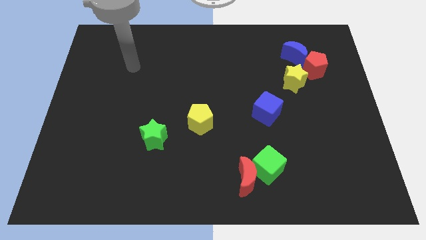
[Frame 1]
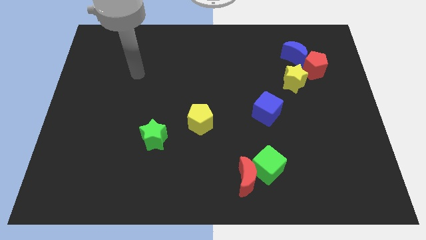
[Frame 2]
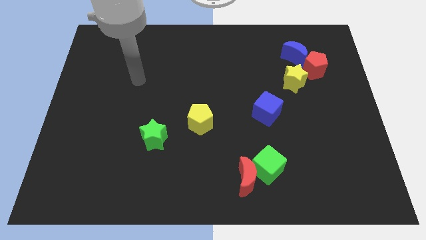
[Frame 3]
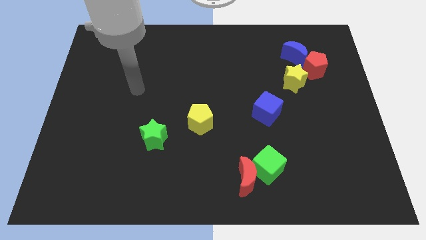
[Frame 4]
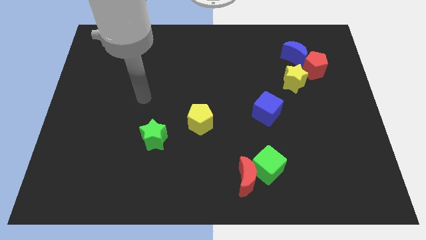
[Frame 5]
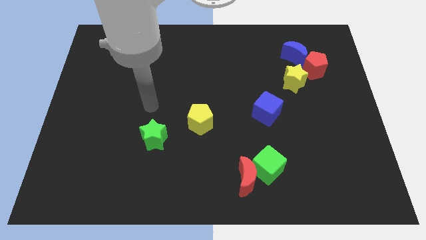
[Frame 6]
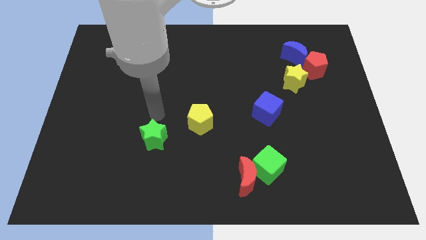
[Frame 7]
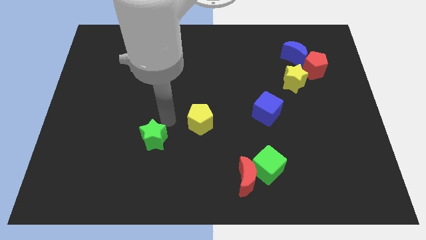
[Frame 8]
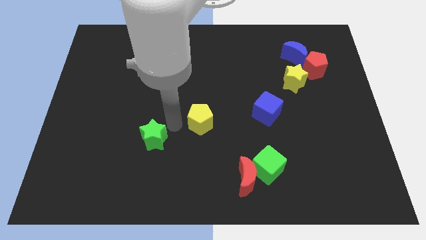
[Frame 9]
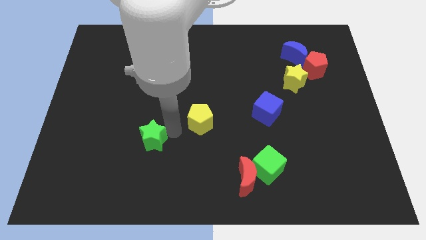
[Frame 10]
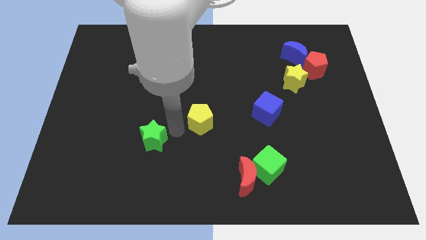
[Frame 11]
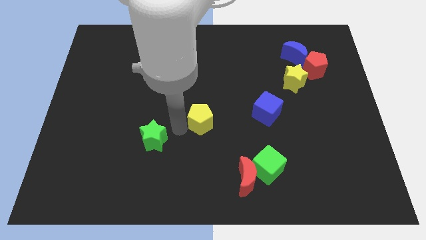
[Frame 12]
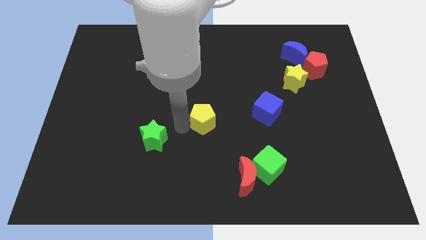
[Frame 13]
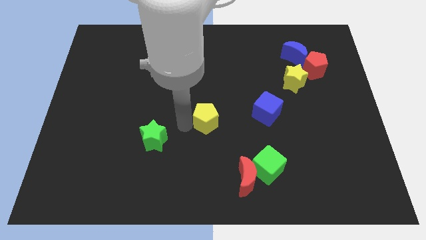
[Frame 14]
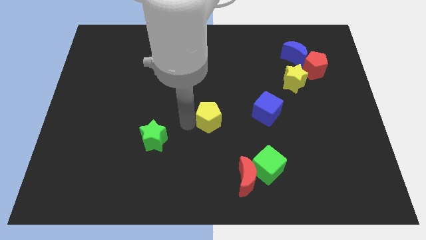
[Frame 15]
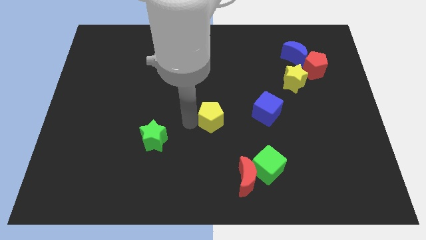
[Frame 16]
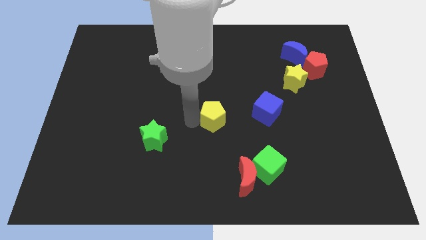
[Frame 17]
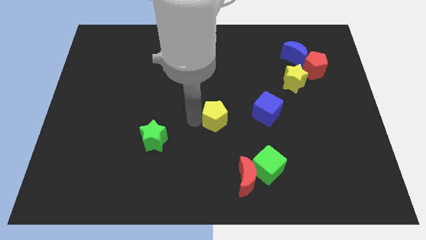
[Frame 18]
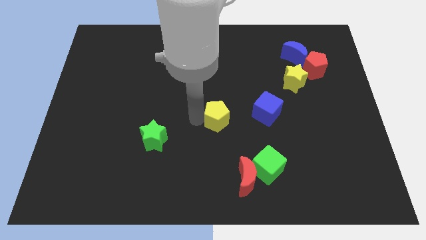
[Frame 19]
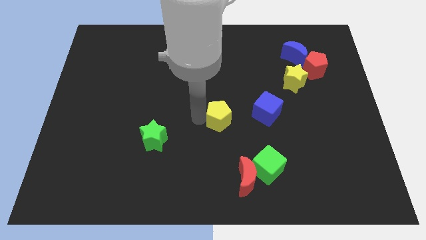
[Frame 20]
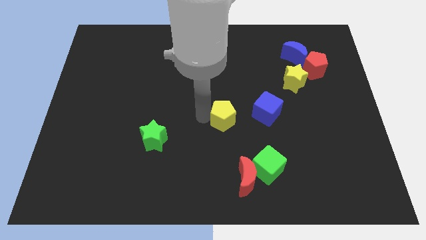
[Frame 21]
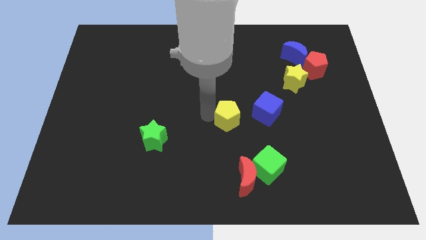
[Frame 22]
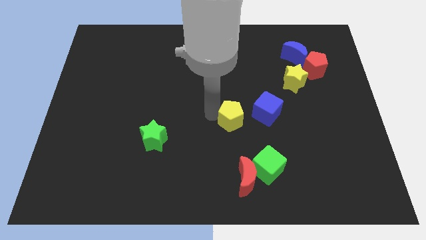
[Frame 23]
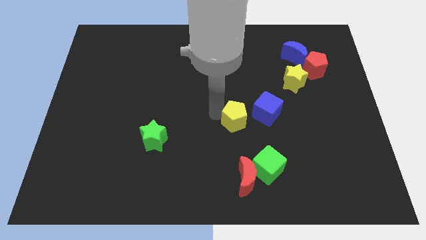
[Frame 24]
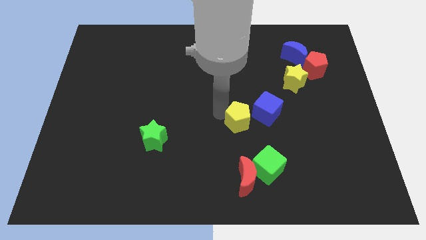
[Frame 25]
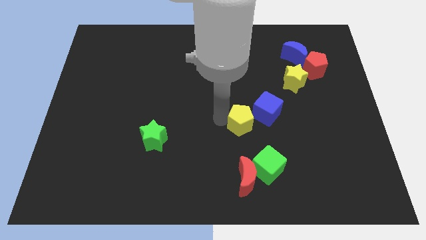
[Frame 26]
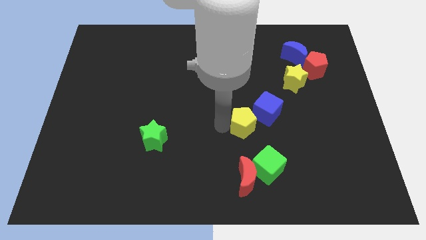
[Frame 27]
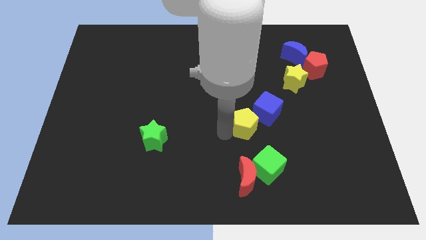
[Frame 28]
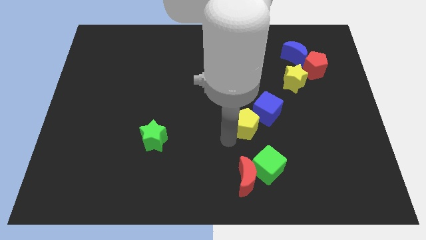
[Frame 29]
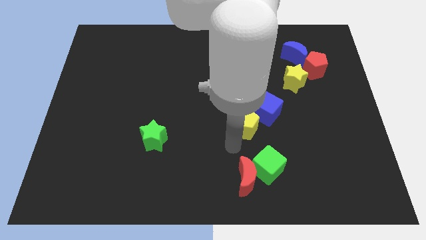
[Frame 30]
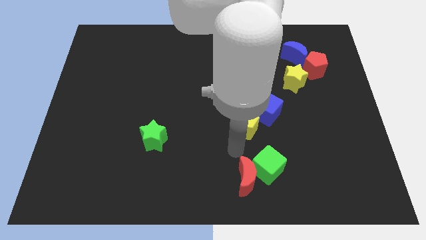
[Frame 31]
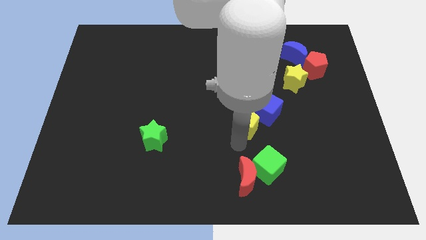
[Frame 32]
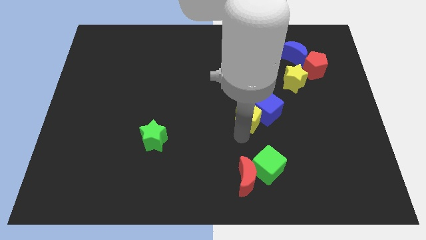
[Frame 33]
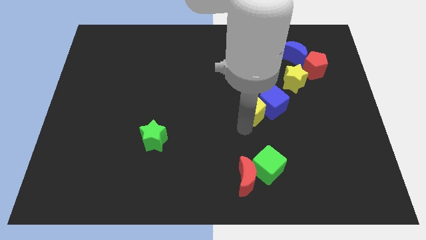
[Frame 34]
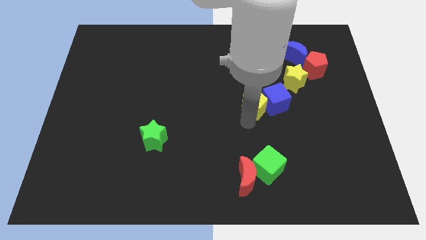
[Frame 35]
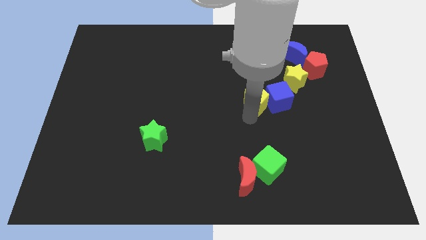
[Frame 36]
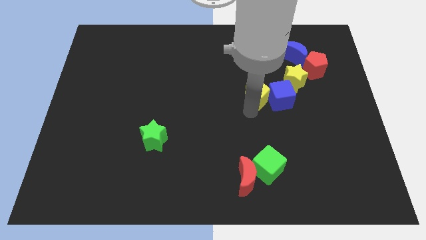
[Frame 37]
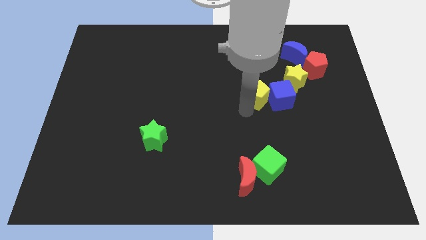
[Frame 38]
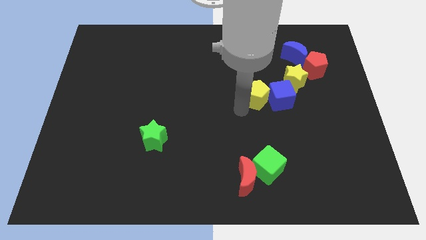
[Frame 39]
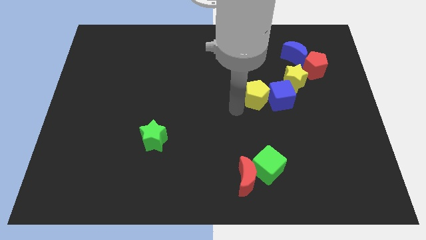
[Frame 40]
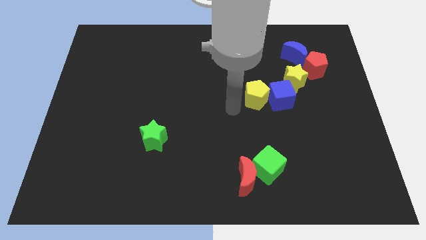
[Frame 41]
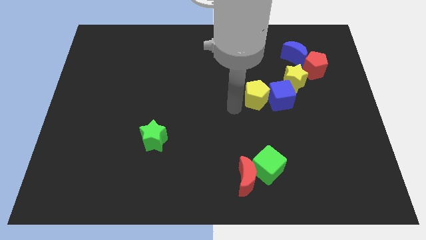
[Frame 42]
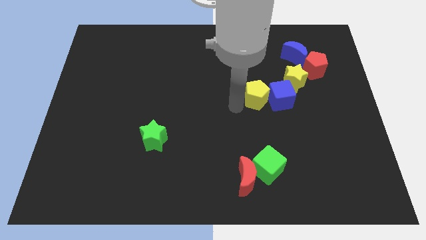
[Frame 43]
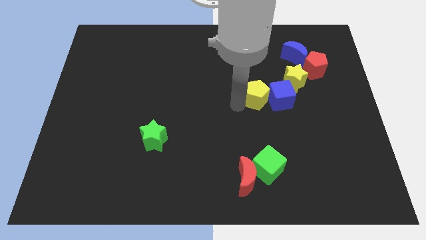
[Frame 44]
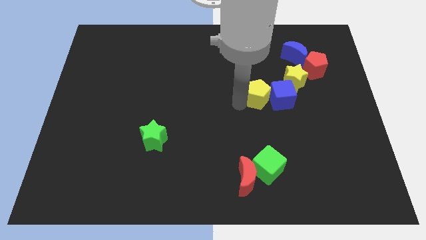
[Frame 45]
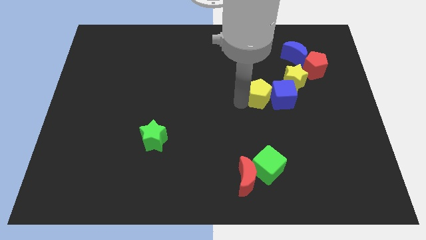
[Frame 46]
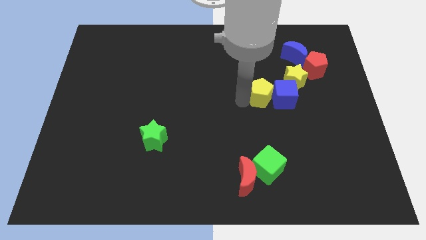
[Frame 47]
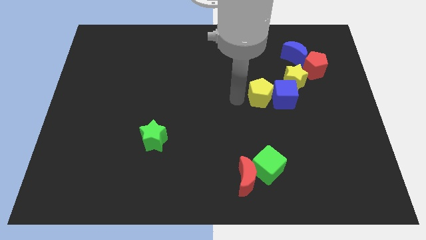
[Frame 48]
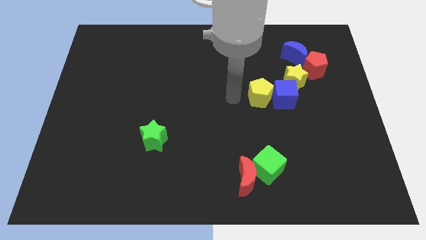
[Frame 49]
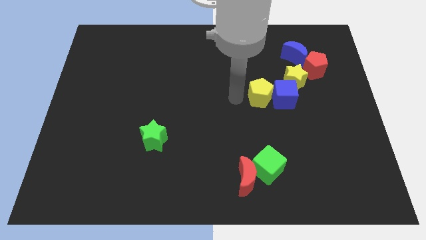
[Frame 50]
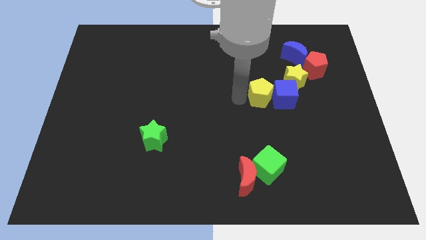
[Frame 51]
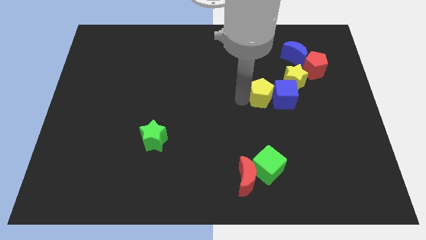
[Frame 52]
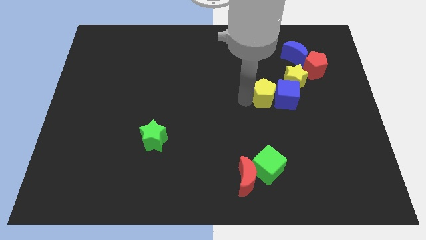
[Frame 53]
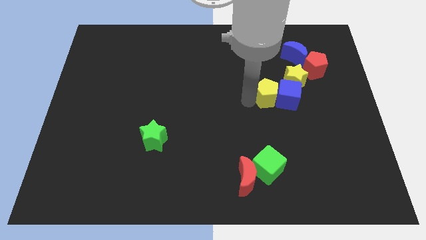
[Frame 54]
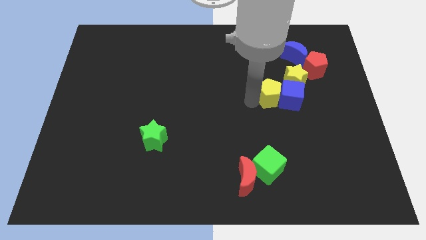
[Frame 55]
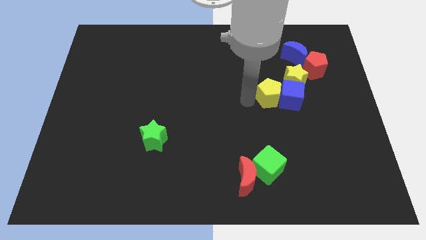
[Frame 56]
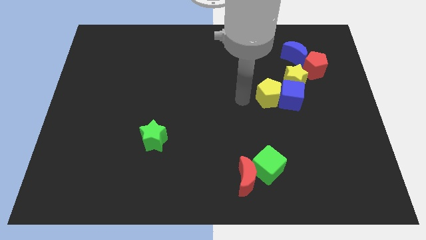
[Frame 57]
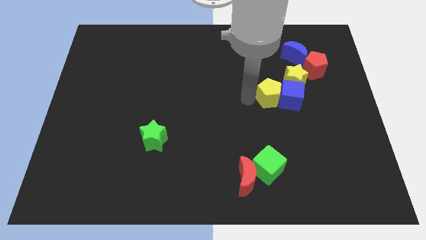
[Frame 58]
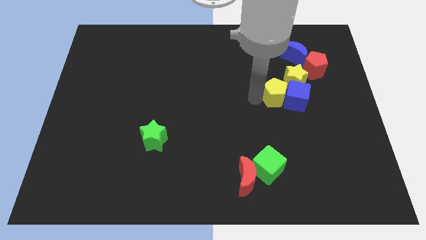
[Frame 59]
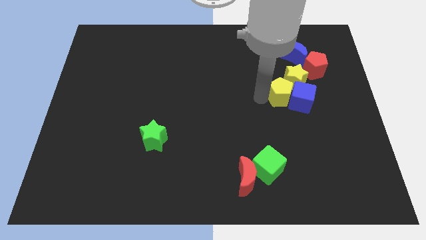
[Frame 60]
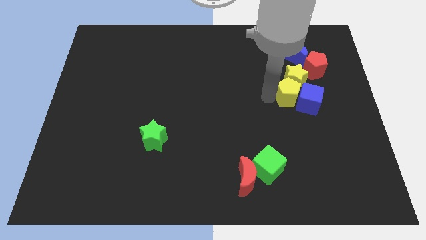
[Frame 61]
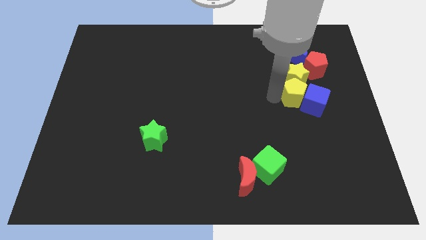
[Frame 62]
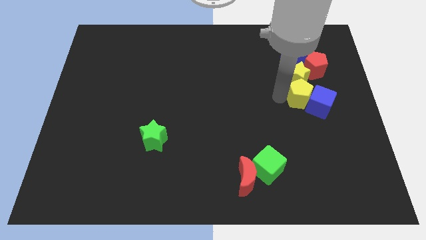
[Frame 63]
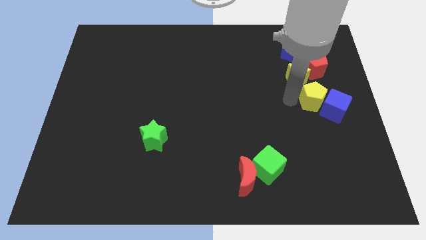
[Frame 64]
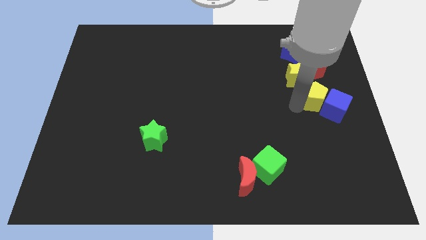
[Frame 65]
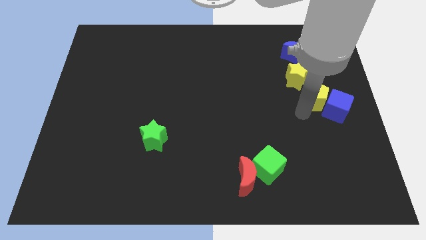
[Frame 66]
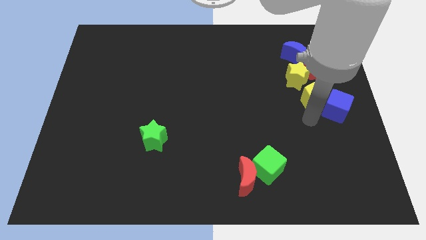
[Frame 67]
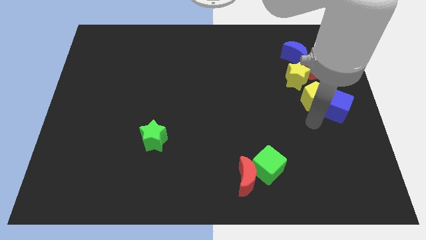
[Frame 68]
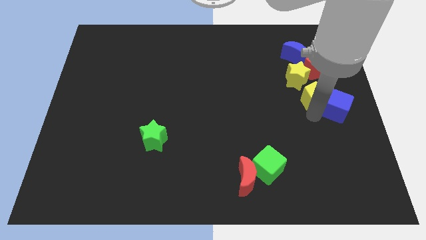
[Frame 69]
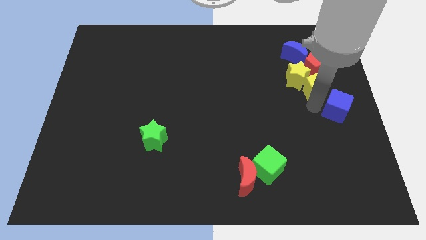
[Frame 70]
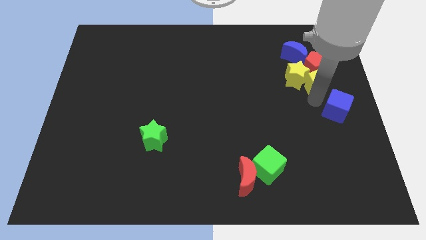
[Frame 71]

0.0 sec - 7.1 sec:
slide the yellow pentagon next to the red pentagon

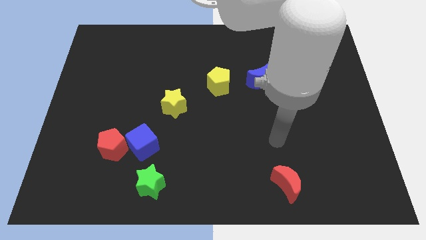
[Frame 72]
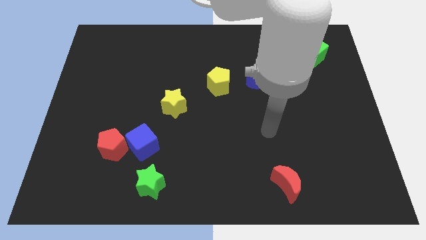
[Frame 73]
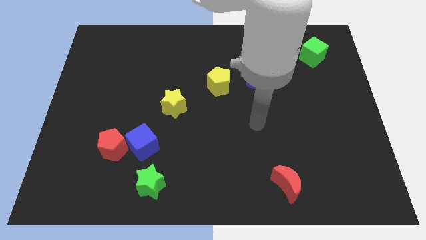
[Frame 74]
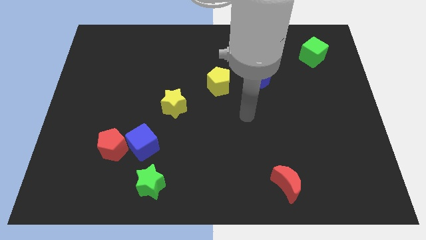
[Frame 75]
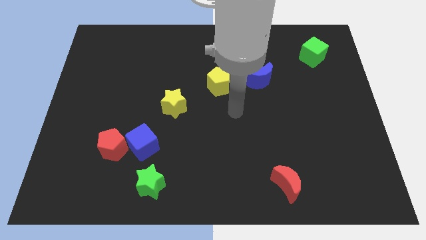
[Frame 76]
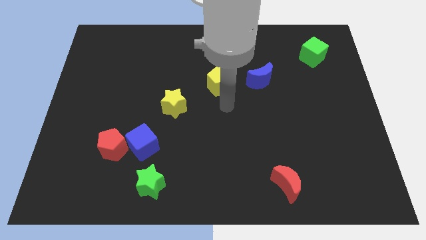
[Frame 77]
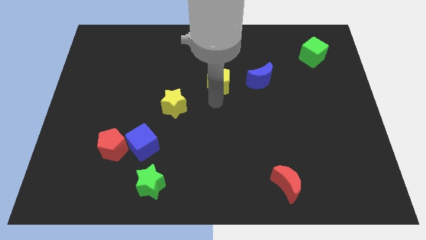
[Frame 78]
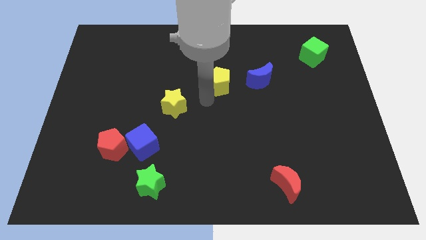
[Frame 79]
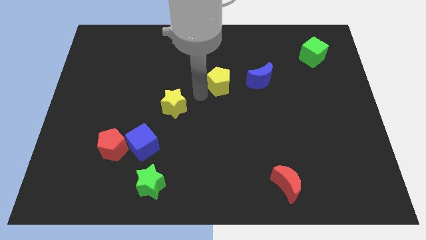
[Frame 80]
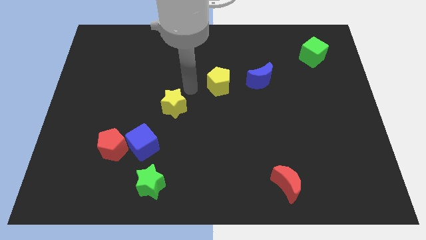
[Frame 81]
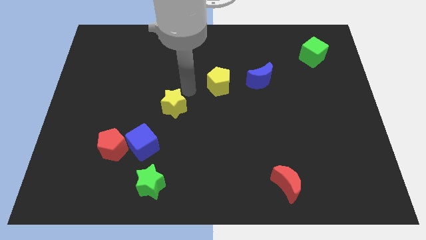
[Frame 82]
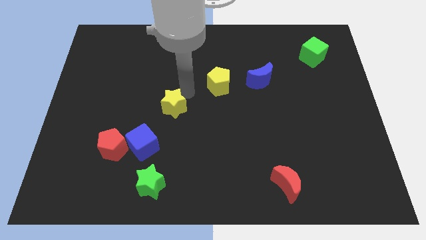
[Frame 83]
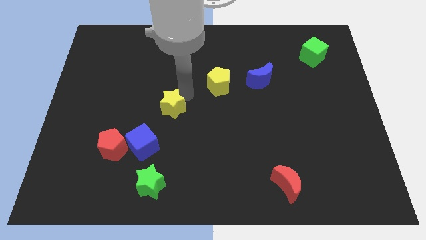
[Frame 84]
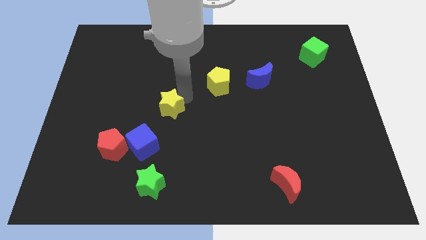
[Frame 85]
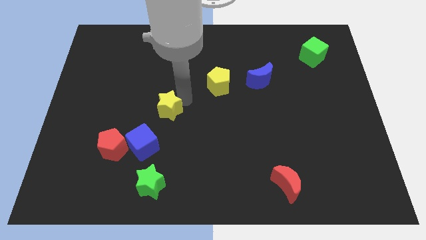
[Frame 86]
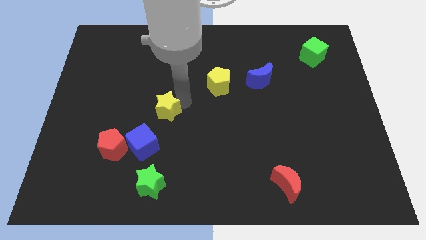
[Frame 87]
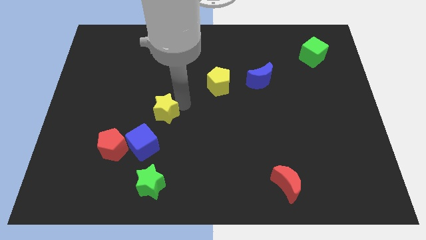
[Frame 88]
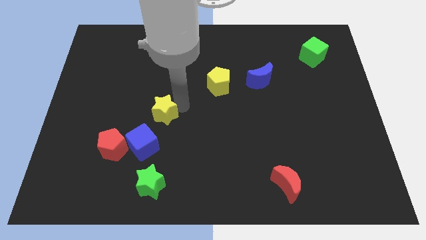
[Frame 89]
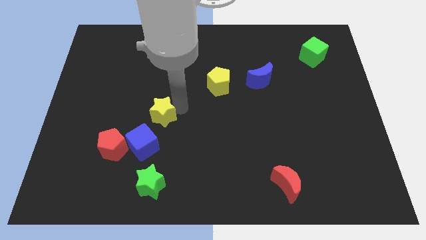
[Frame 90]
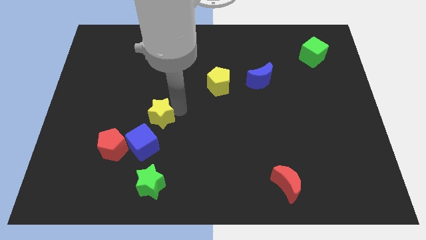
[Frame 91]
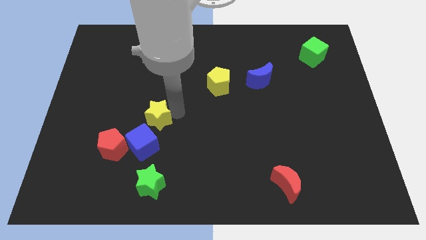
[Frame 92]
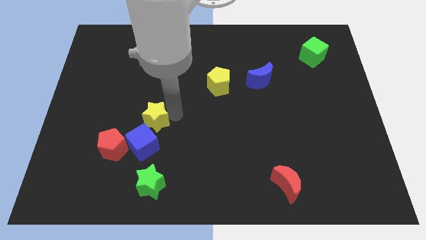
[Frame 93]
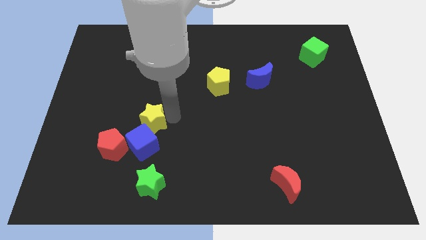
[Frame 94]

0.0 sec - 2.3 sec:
put the yellow star towards the blue cube
